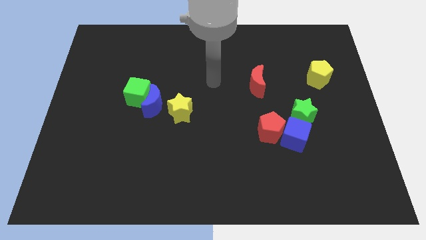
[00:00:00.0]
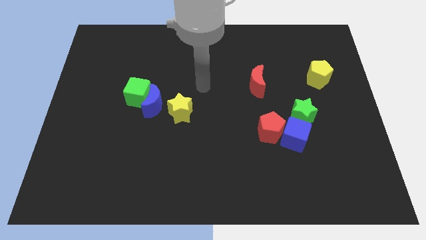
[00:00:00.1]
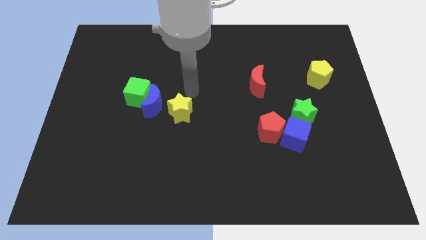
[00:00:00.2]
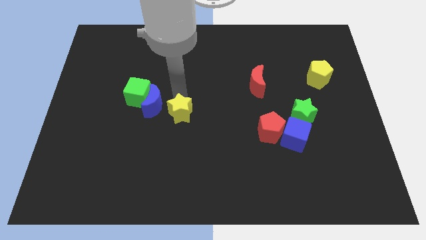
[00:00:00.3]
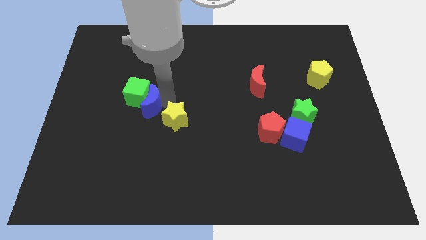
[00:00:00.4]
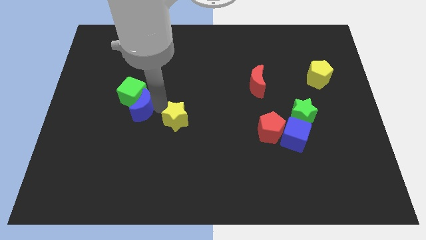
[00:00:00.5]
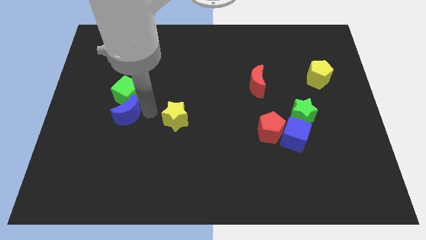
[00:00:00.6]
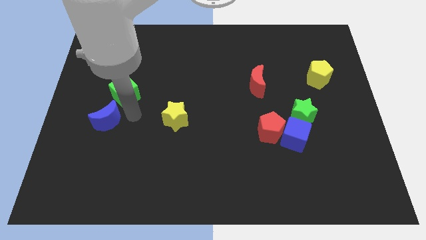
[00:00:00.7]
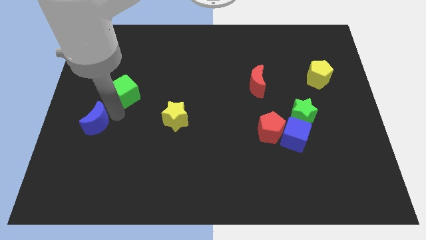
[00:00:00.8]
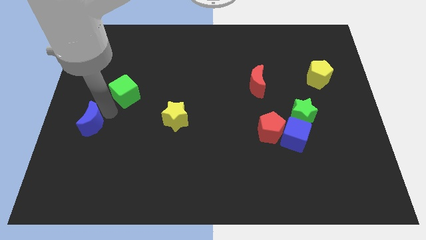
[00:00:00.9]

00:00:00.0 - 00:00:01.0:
separate the green cube from the blue moon

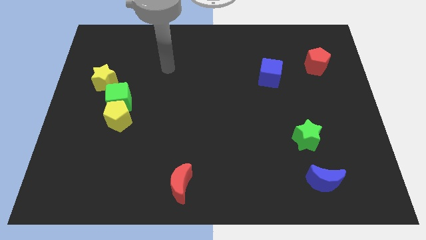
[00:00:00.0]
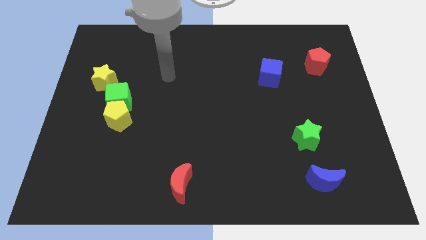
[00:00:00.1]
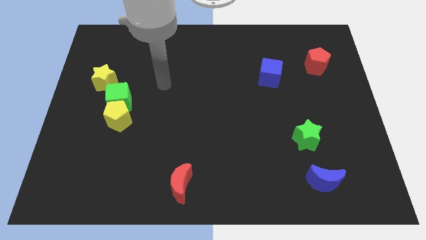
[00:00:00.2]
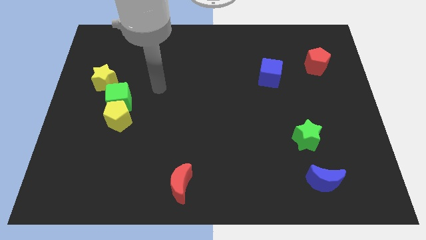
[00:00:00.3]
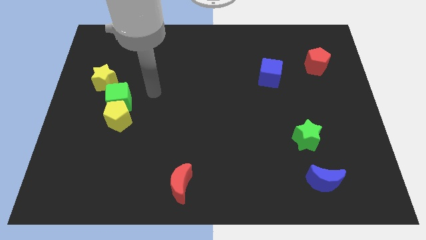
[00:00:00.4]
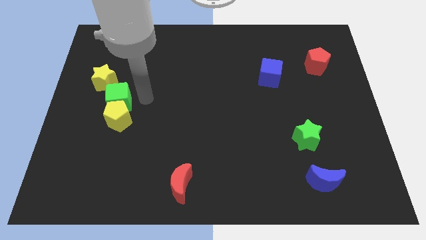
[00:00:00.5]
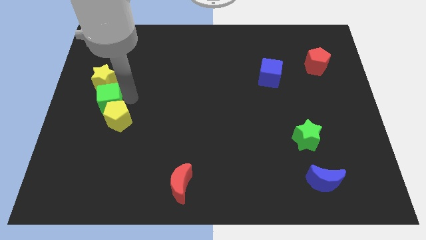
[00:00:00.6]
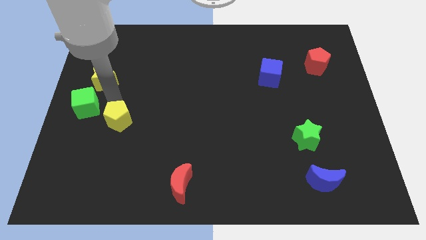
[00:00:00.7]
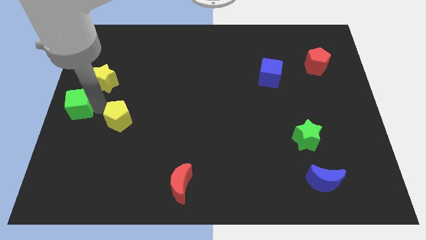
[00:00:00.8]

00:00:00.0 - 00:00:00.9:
move the yellow pentagon away from the green cube

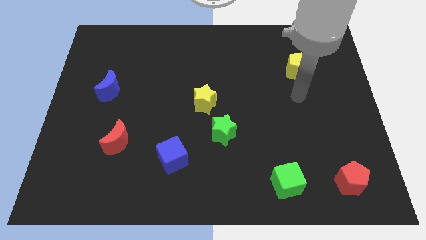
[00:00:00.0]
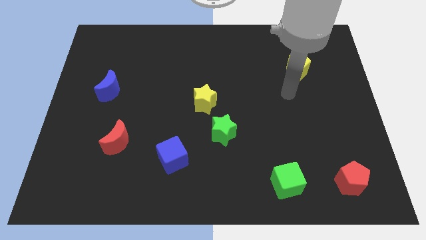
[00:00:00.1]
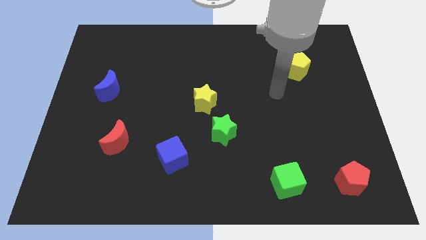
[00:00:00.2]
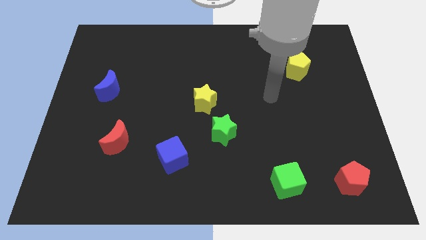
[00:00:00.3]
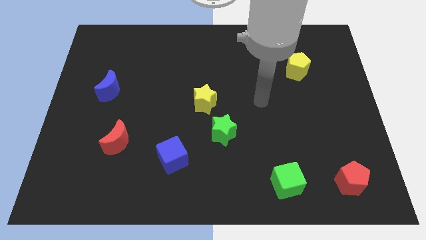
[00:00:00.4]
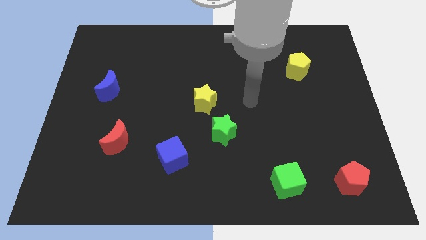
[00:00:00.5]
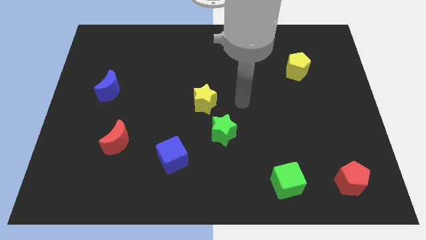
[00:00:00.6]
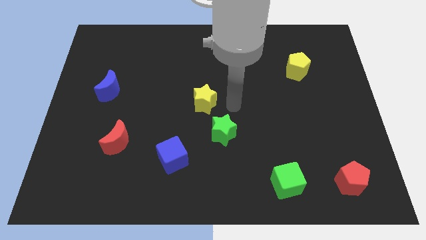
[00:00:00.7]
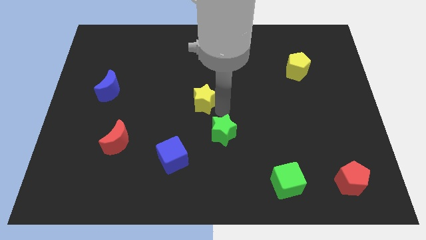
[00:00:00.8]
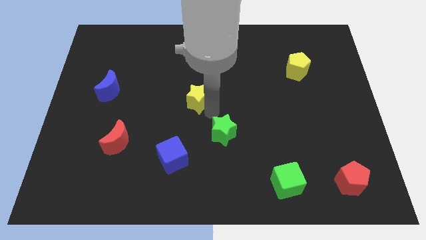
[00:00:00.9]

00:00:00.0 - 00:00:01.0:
move the green star away from the yellow star

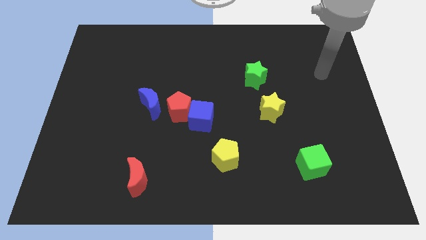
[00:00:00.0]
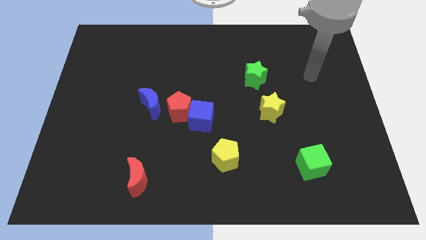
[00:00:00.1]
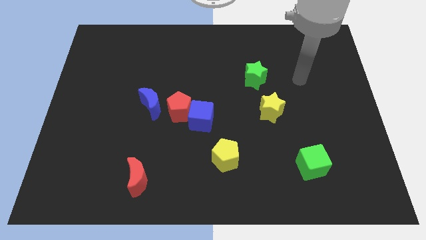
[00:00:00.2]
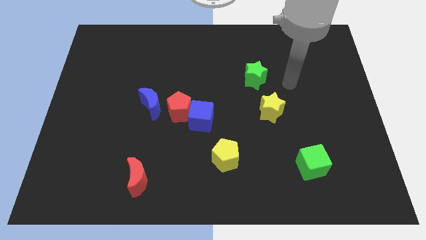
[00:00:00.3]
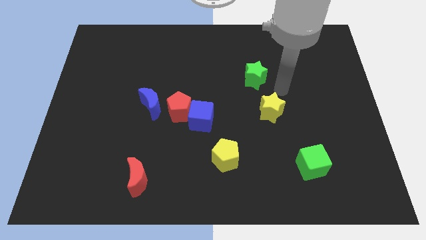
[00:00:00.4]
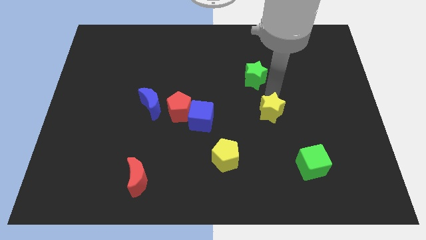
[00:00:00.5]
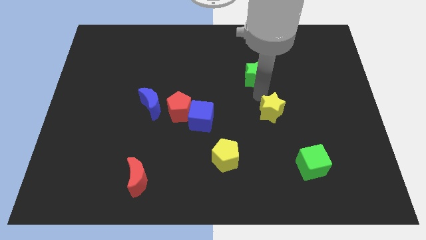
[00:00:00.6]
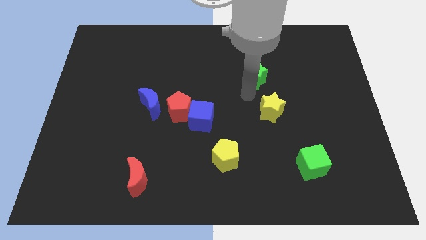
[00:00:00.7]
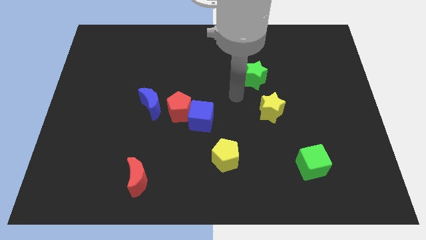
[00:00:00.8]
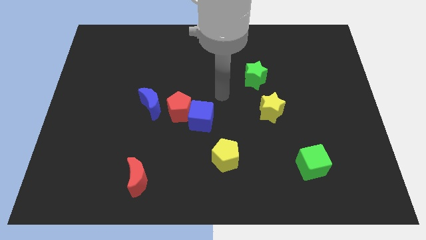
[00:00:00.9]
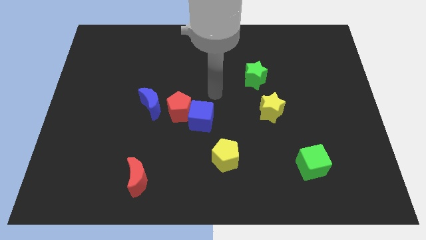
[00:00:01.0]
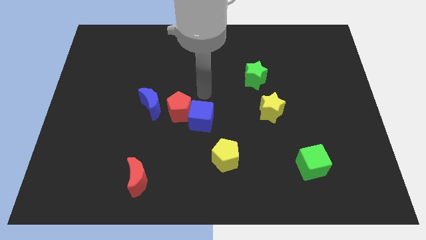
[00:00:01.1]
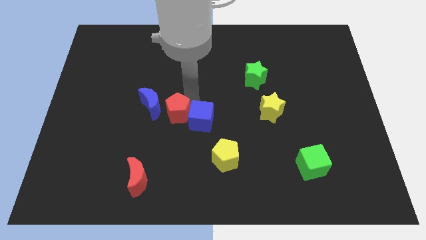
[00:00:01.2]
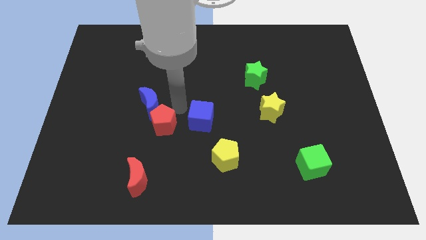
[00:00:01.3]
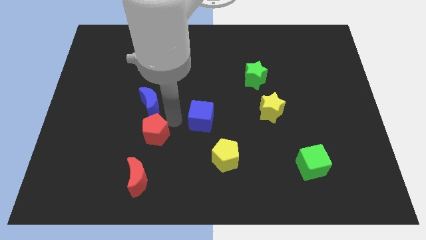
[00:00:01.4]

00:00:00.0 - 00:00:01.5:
move the blue cube away from the red pentagon

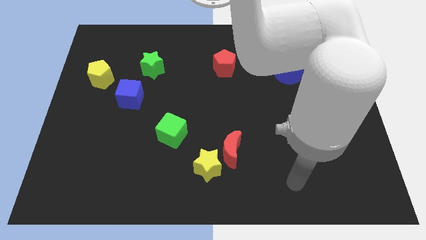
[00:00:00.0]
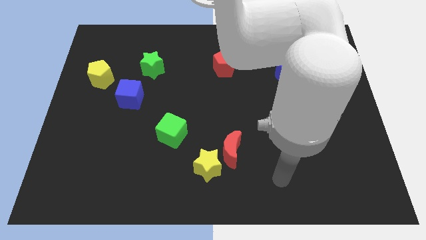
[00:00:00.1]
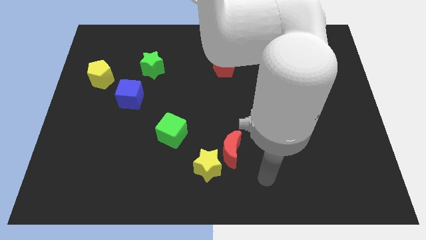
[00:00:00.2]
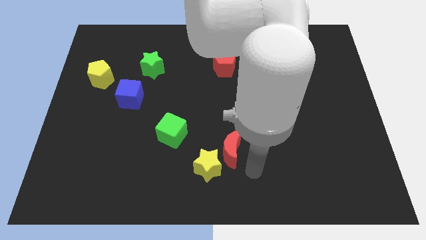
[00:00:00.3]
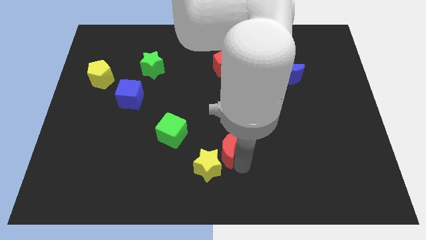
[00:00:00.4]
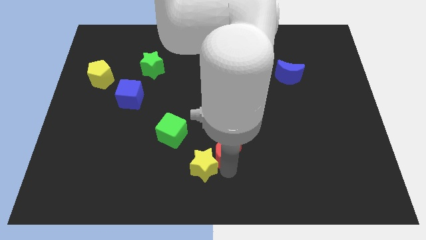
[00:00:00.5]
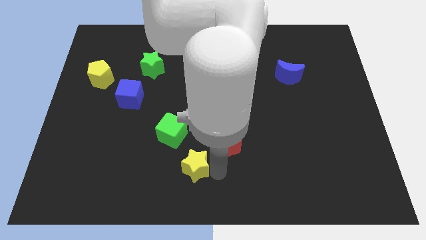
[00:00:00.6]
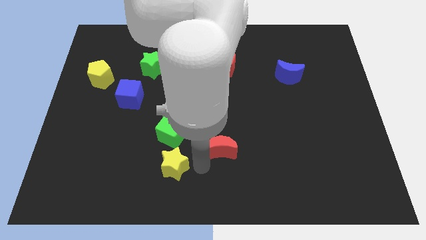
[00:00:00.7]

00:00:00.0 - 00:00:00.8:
move the red moon away from the yellow star

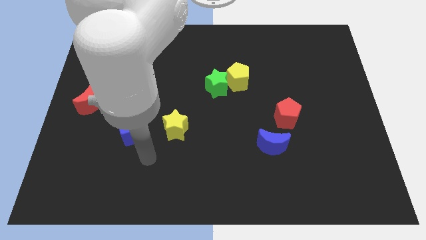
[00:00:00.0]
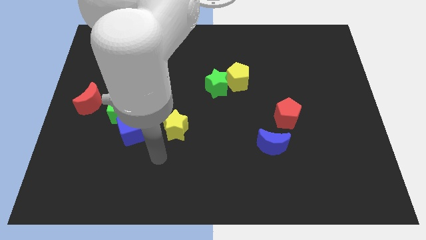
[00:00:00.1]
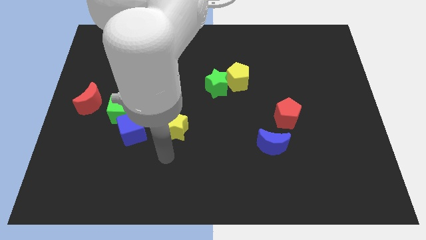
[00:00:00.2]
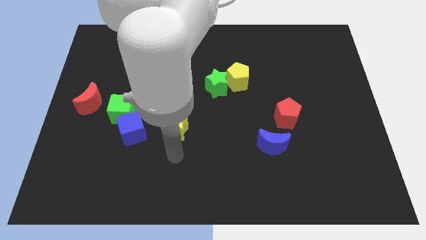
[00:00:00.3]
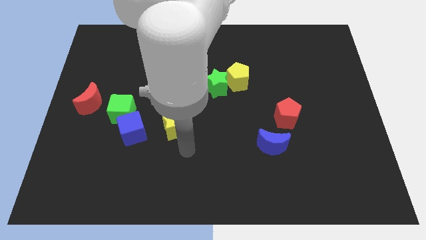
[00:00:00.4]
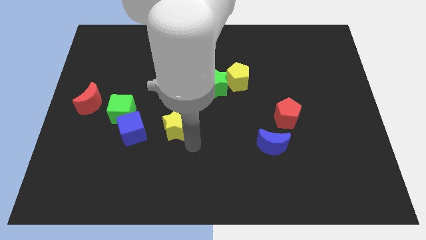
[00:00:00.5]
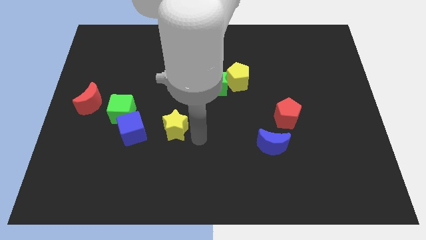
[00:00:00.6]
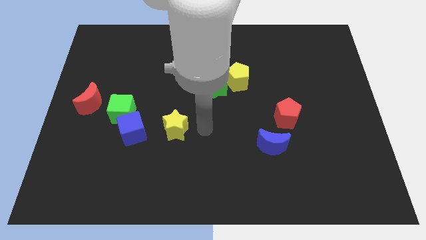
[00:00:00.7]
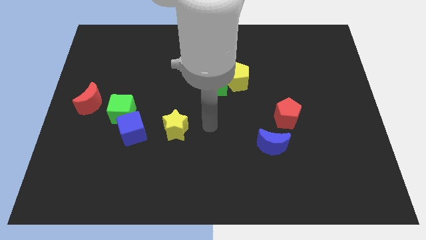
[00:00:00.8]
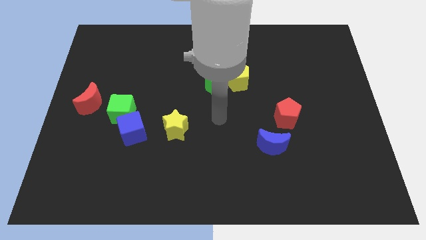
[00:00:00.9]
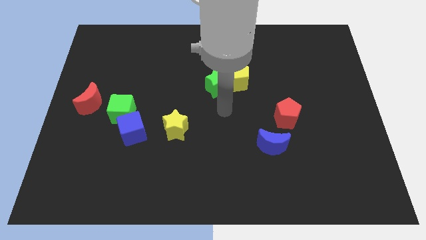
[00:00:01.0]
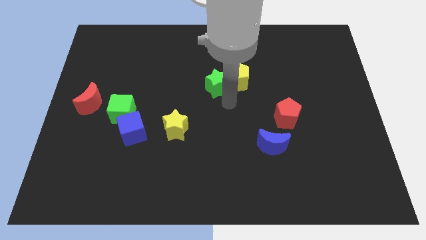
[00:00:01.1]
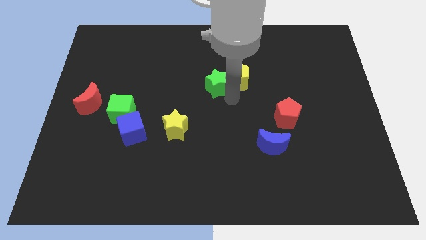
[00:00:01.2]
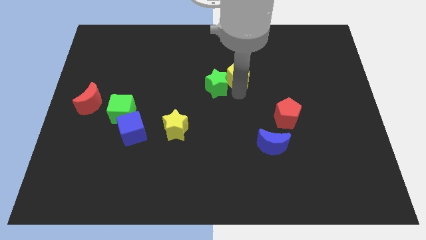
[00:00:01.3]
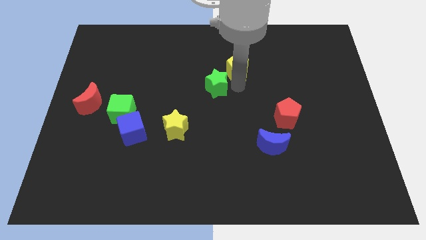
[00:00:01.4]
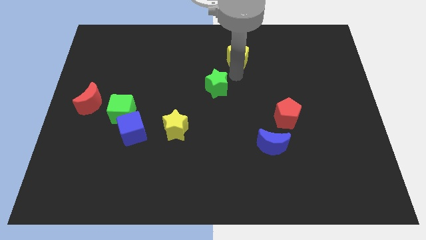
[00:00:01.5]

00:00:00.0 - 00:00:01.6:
separate the green star from the yellow pentagon

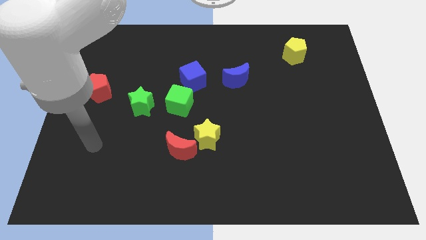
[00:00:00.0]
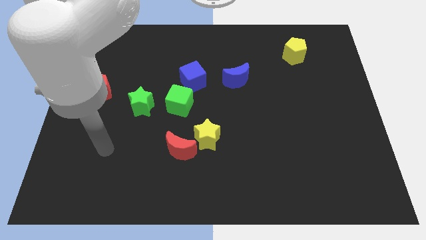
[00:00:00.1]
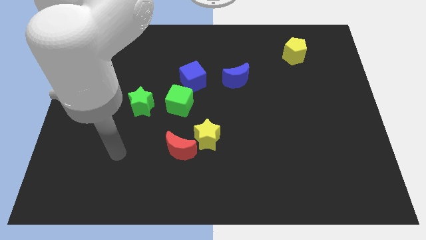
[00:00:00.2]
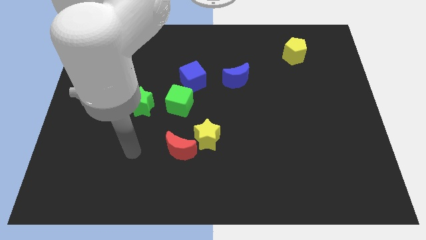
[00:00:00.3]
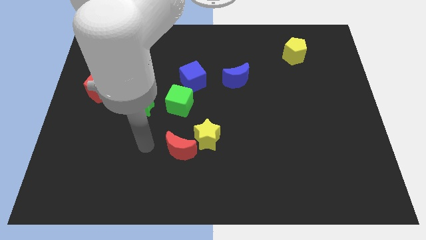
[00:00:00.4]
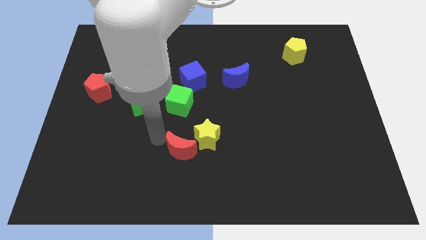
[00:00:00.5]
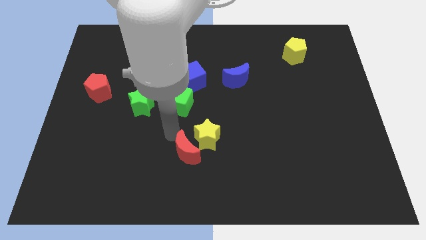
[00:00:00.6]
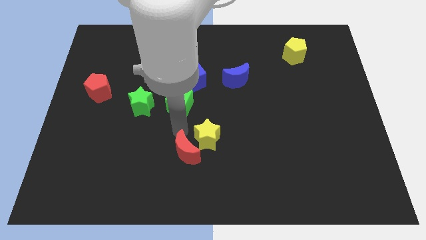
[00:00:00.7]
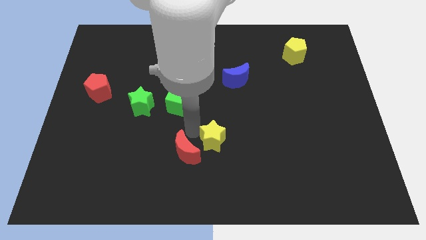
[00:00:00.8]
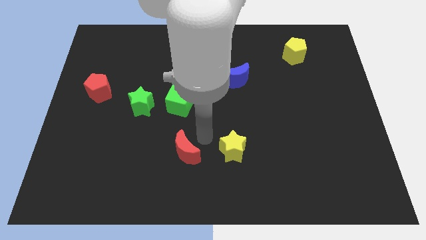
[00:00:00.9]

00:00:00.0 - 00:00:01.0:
separate the red moon from the yellow star

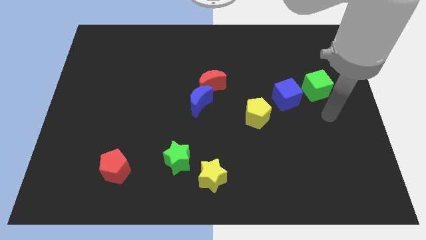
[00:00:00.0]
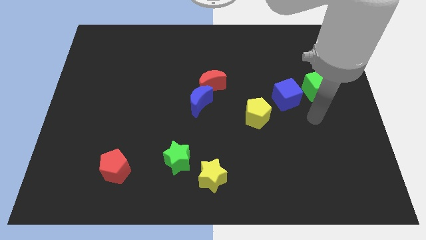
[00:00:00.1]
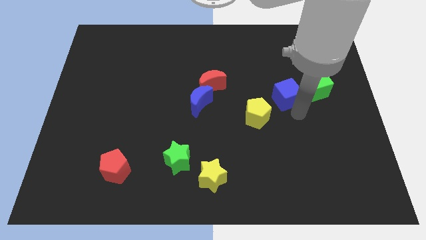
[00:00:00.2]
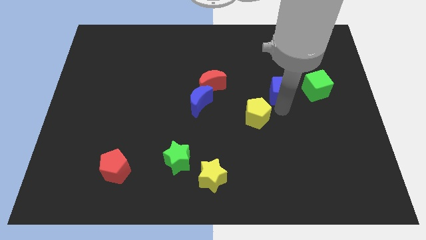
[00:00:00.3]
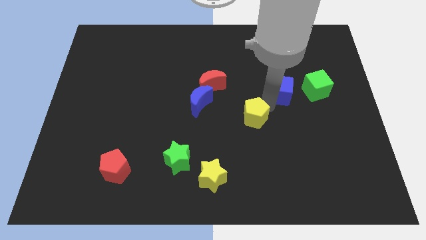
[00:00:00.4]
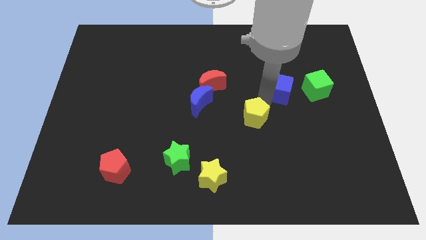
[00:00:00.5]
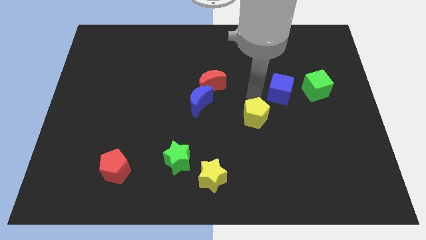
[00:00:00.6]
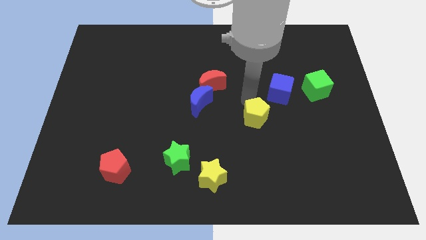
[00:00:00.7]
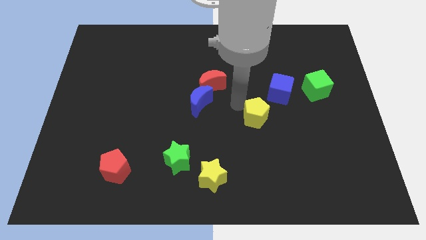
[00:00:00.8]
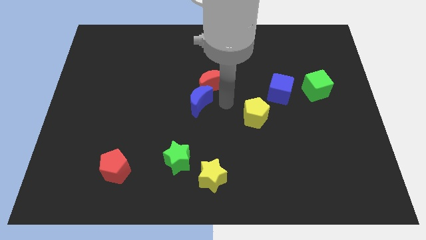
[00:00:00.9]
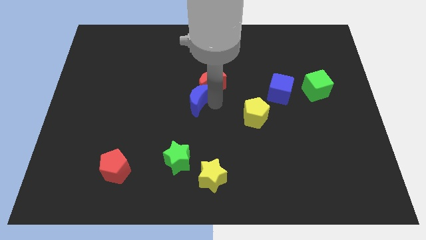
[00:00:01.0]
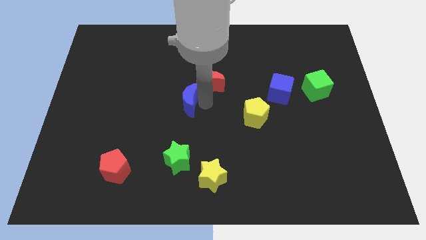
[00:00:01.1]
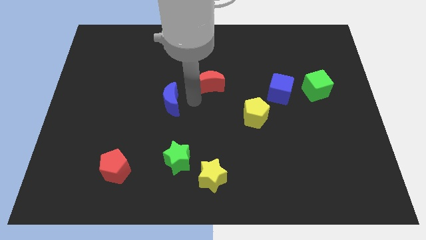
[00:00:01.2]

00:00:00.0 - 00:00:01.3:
move the red moon away from the blue moon

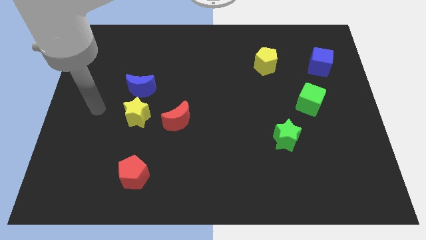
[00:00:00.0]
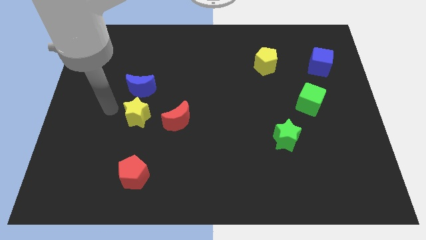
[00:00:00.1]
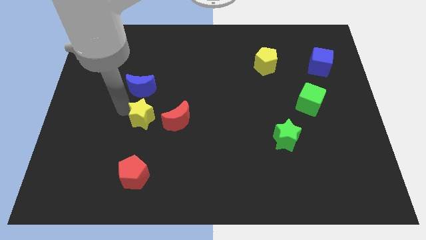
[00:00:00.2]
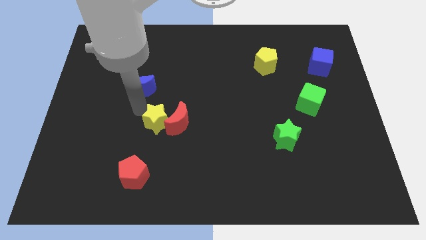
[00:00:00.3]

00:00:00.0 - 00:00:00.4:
pull the blue moon apart from the yellow star
